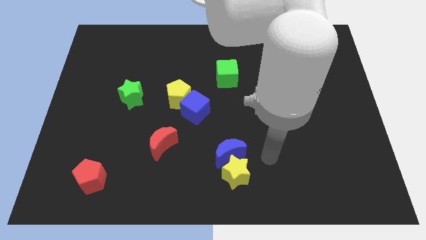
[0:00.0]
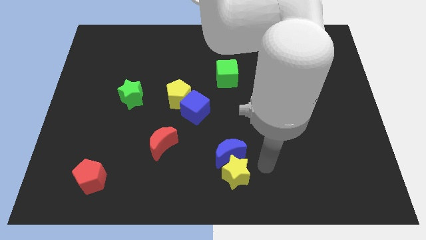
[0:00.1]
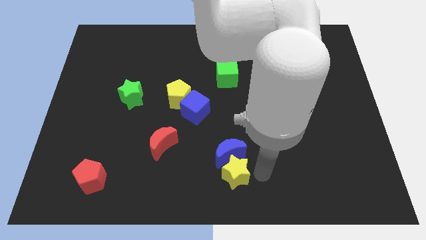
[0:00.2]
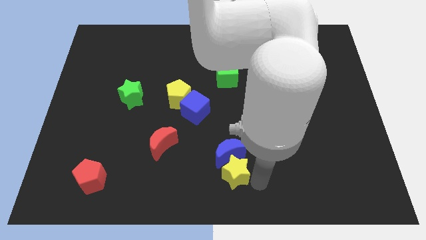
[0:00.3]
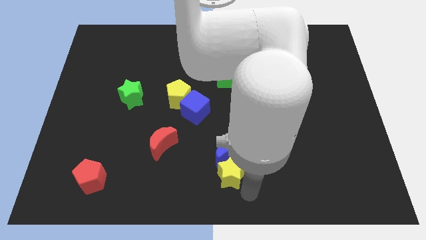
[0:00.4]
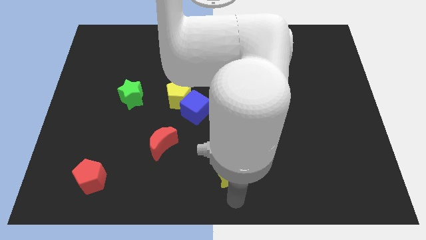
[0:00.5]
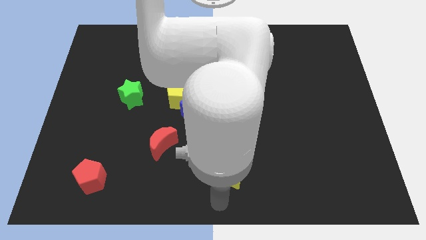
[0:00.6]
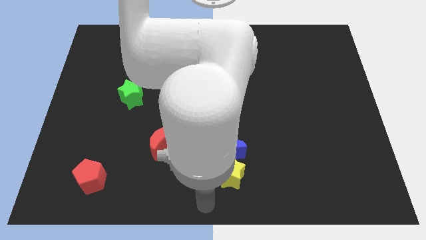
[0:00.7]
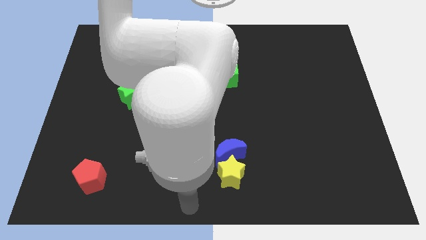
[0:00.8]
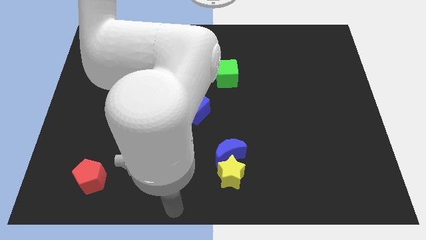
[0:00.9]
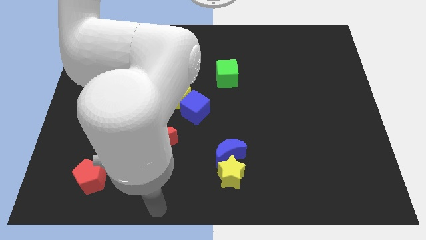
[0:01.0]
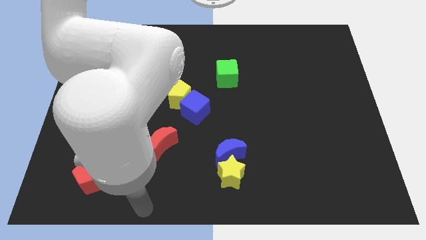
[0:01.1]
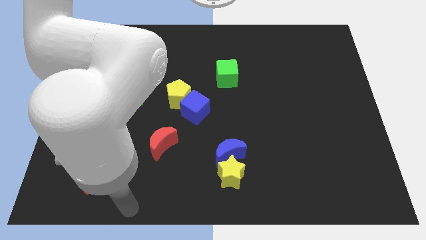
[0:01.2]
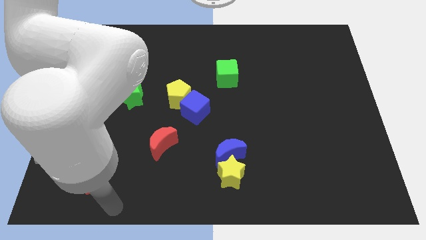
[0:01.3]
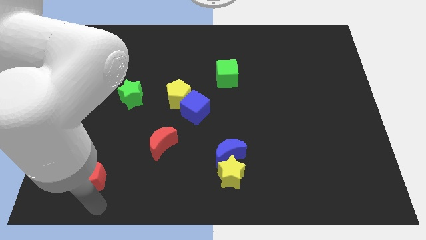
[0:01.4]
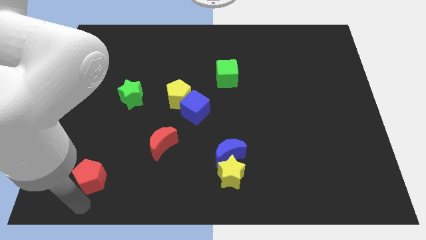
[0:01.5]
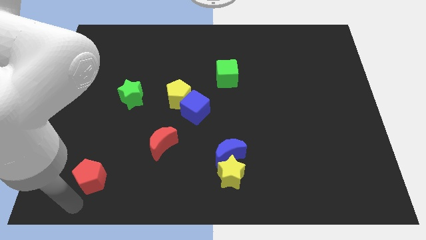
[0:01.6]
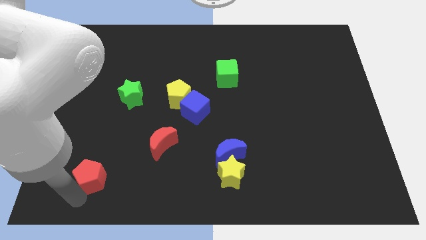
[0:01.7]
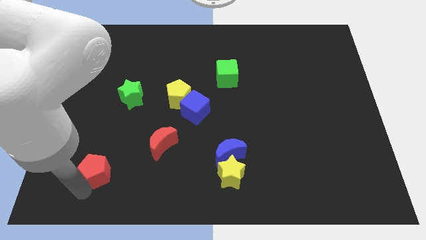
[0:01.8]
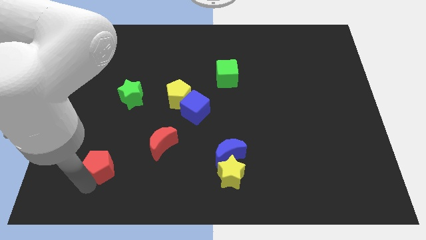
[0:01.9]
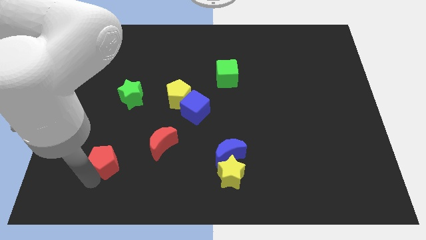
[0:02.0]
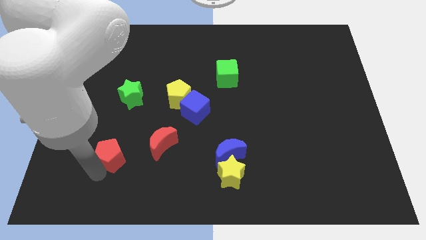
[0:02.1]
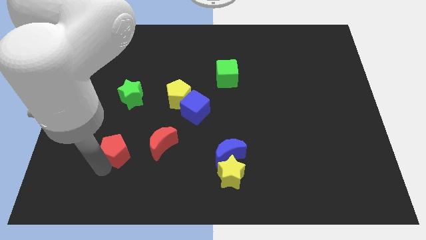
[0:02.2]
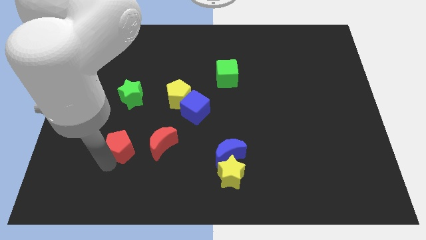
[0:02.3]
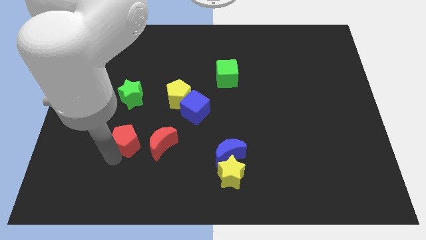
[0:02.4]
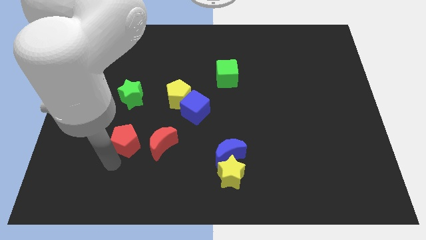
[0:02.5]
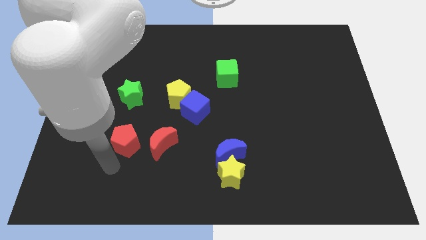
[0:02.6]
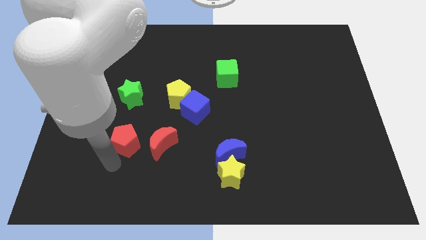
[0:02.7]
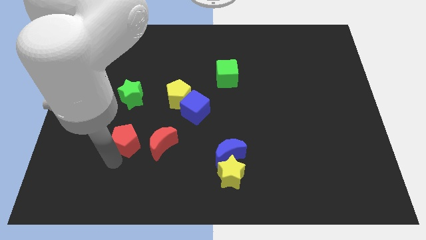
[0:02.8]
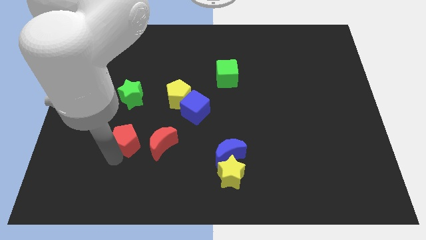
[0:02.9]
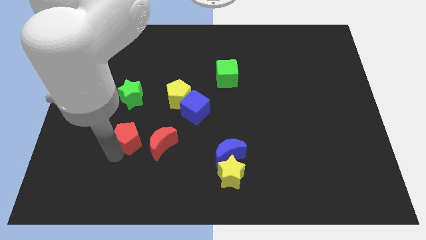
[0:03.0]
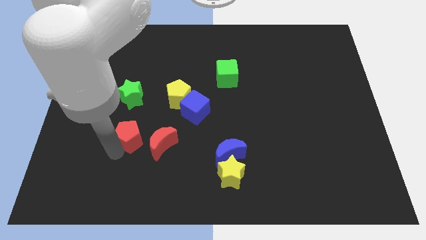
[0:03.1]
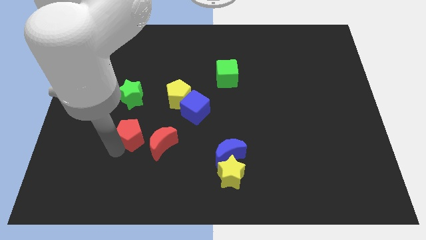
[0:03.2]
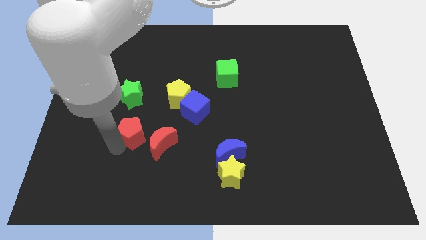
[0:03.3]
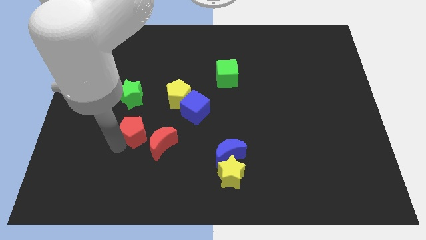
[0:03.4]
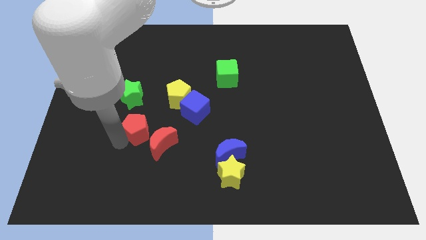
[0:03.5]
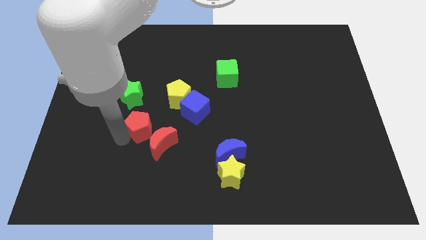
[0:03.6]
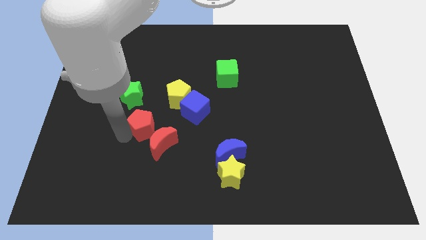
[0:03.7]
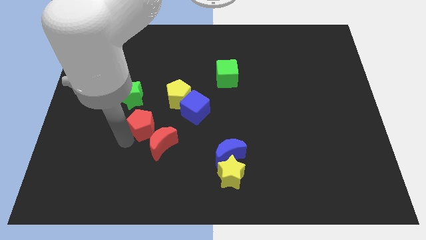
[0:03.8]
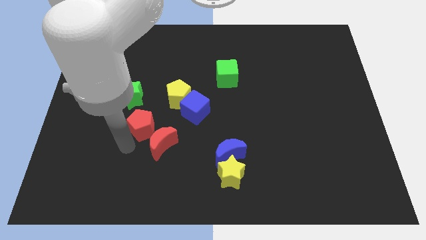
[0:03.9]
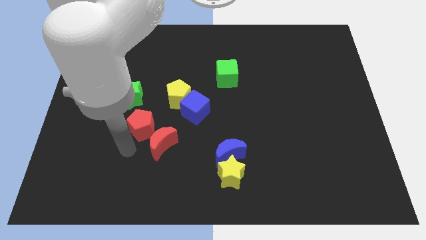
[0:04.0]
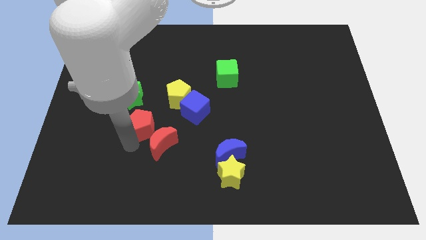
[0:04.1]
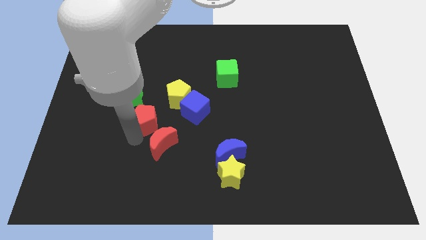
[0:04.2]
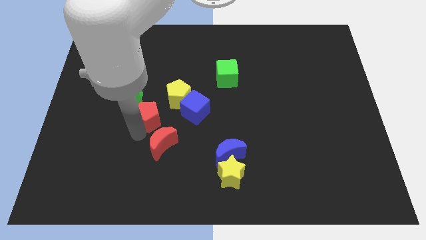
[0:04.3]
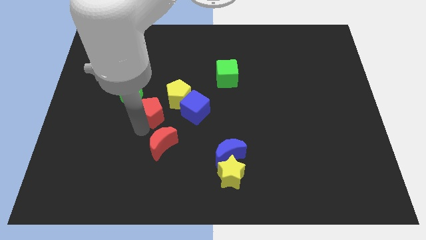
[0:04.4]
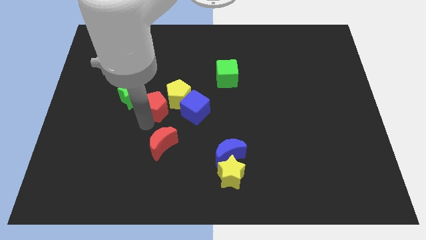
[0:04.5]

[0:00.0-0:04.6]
put the red pentagon just right of the green star

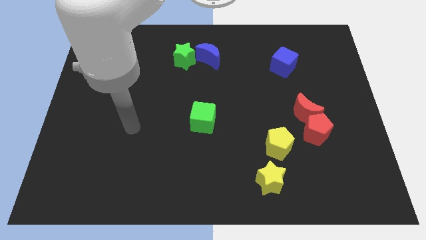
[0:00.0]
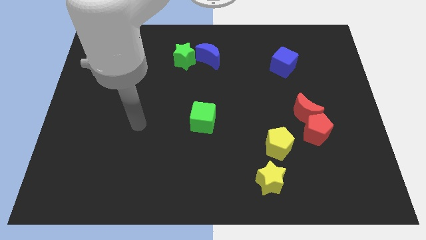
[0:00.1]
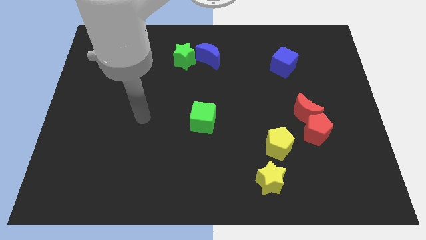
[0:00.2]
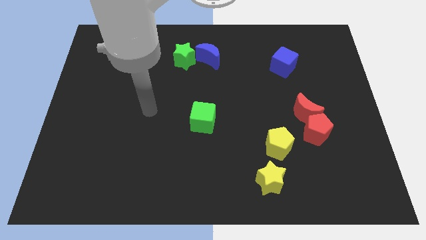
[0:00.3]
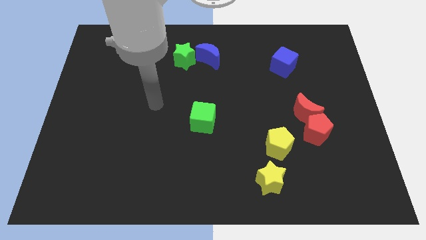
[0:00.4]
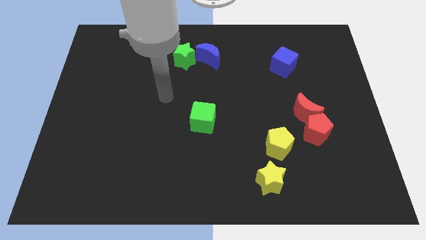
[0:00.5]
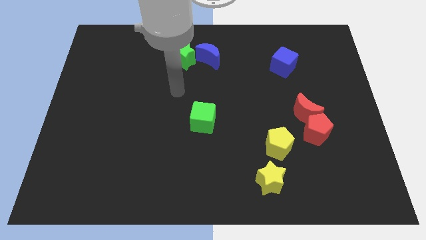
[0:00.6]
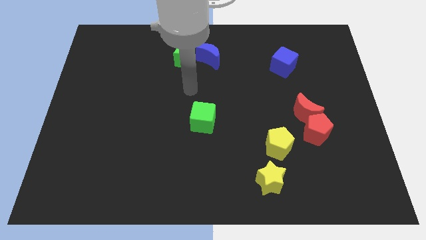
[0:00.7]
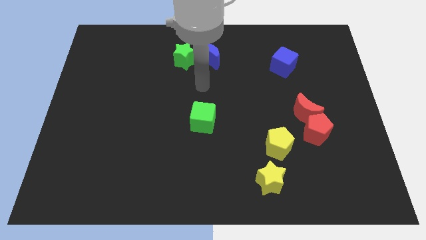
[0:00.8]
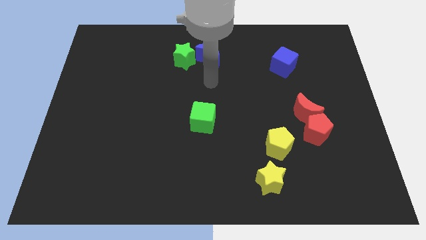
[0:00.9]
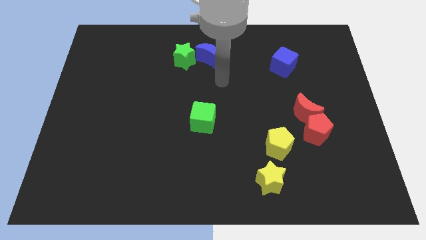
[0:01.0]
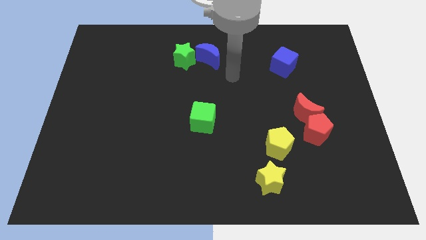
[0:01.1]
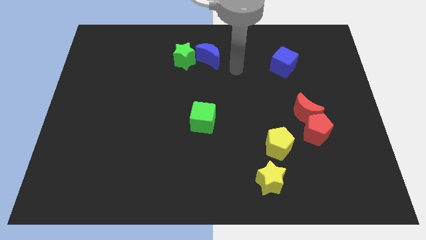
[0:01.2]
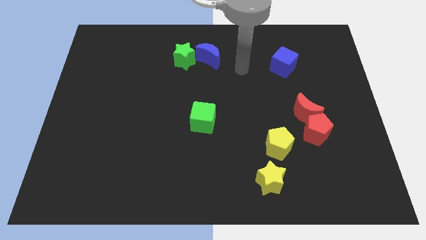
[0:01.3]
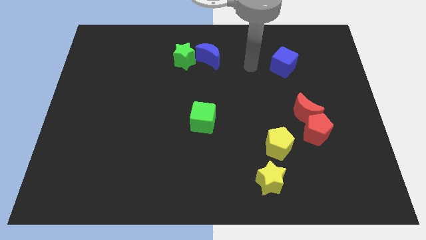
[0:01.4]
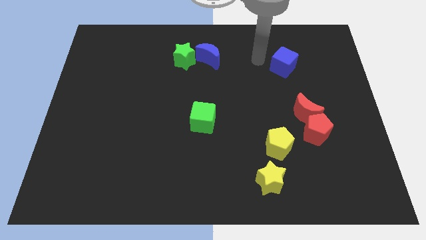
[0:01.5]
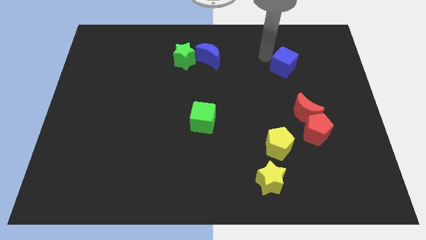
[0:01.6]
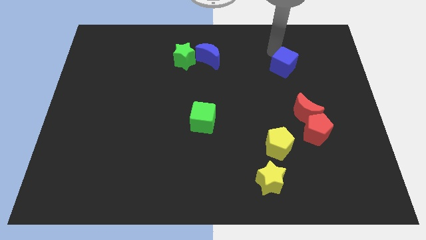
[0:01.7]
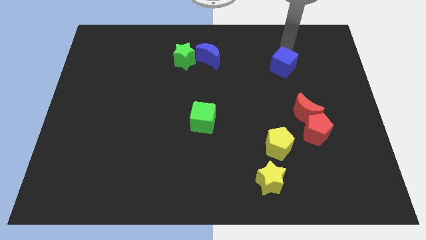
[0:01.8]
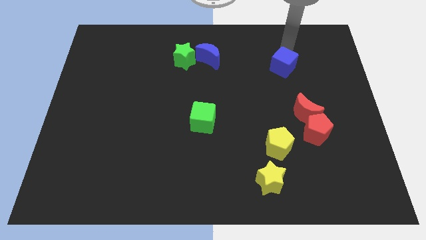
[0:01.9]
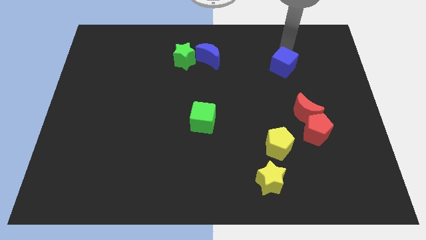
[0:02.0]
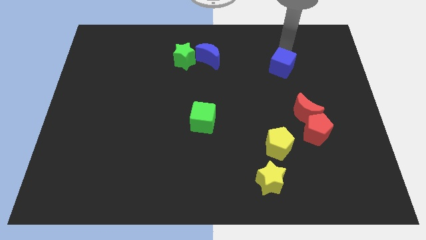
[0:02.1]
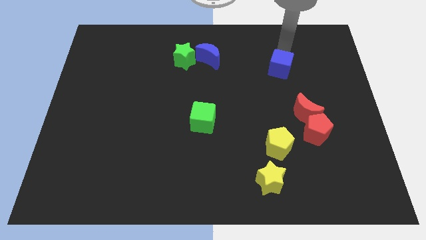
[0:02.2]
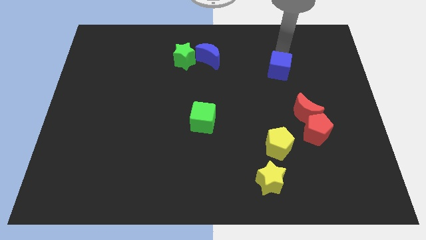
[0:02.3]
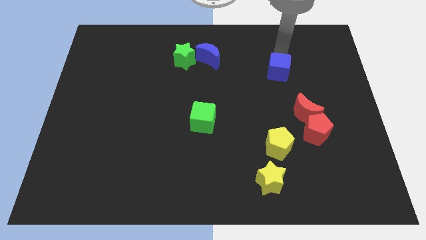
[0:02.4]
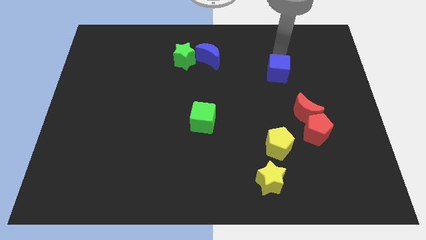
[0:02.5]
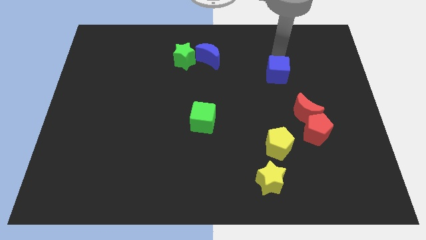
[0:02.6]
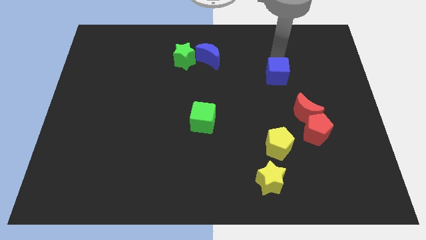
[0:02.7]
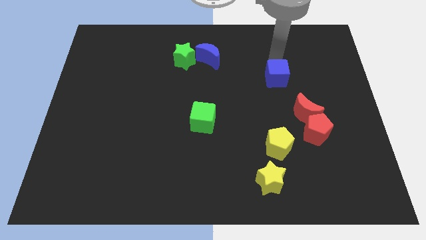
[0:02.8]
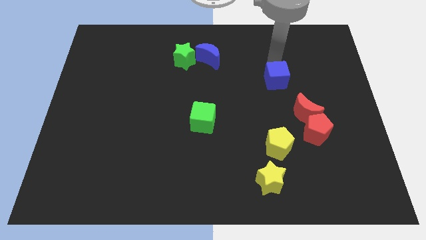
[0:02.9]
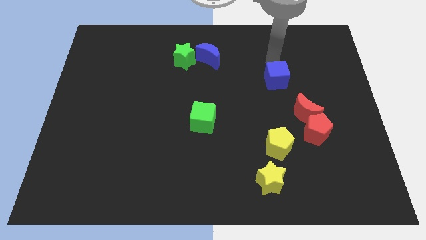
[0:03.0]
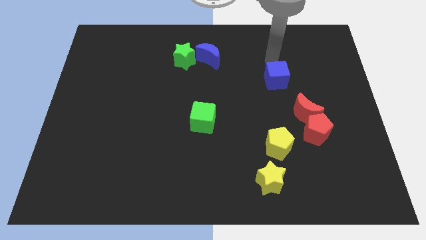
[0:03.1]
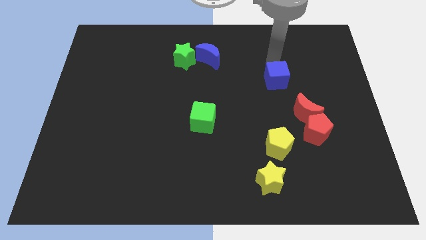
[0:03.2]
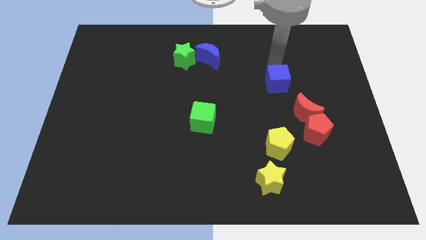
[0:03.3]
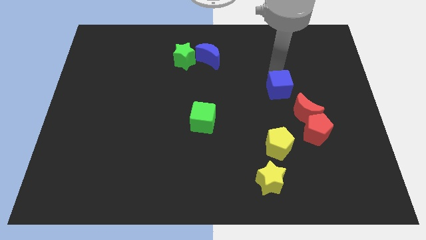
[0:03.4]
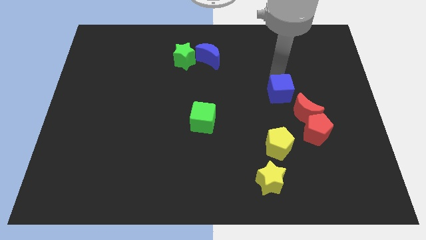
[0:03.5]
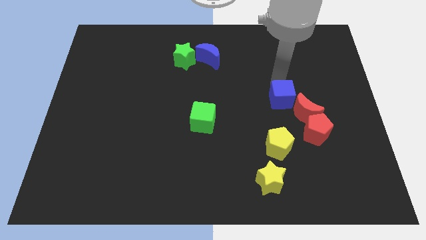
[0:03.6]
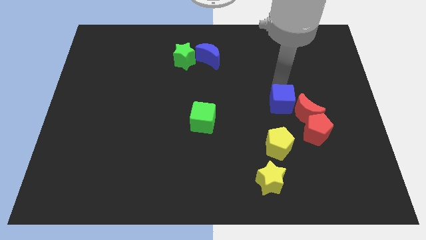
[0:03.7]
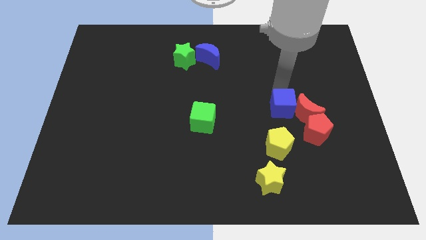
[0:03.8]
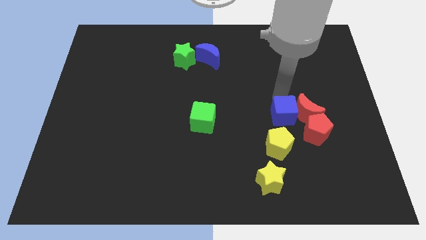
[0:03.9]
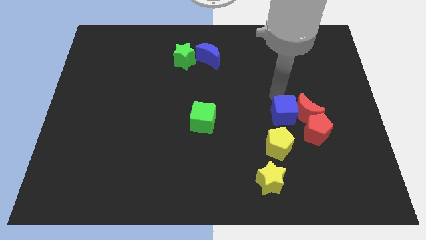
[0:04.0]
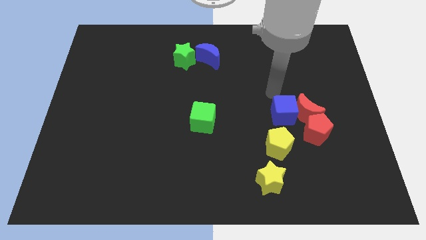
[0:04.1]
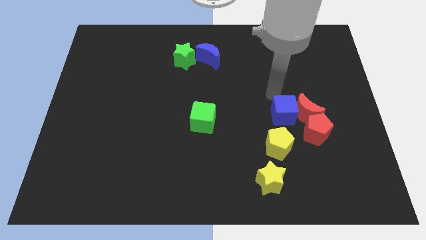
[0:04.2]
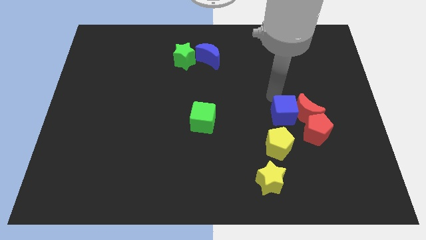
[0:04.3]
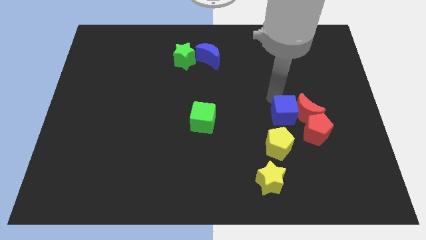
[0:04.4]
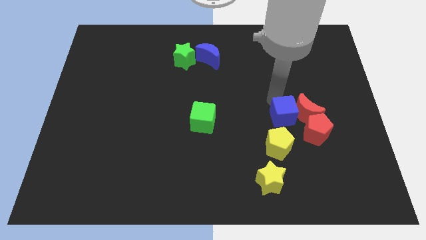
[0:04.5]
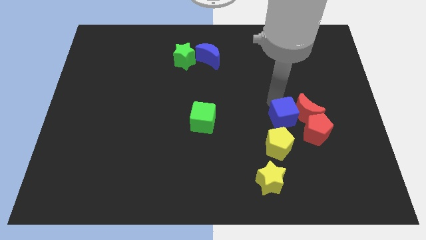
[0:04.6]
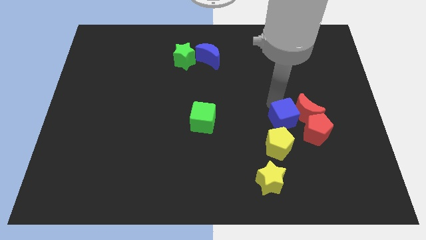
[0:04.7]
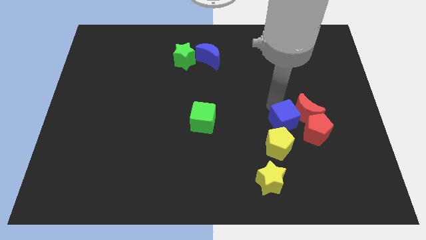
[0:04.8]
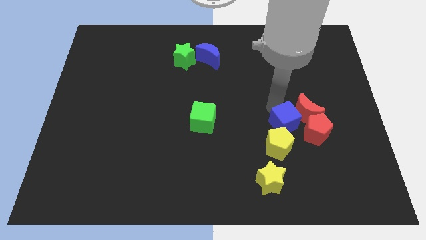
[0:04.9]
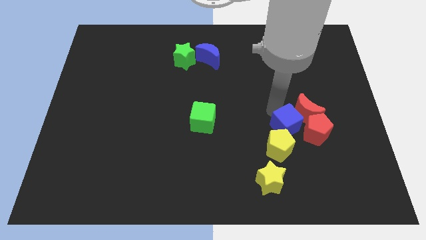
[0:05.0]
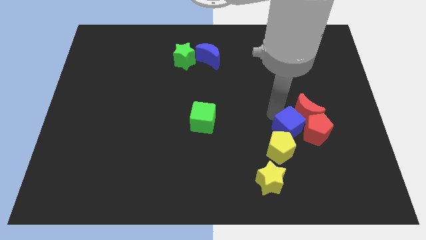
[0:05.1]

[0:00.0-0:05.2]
slide the blue cube to the bottom of the red moon
